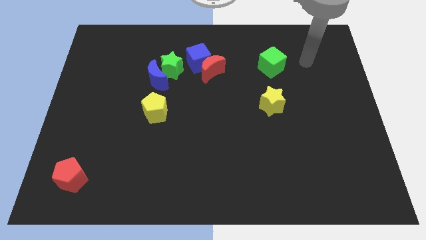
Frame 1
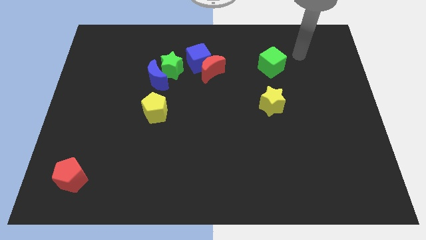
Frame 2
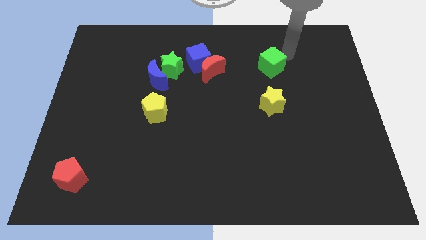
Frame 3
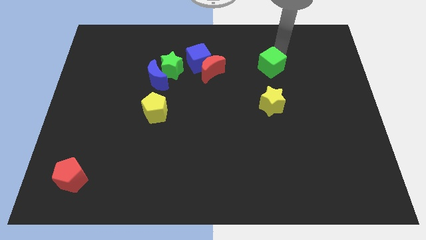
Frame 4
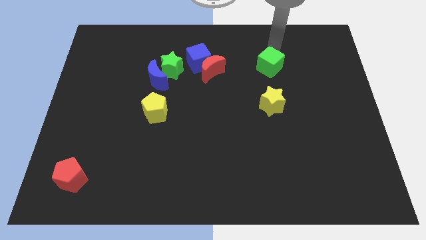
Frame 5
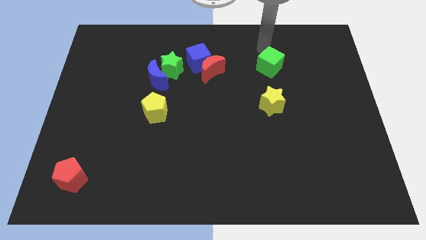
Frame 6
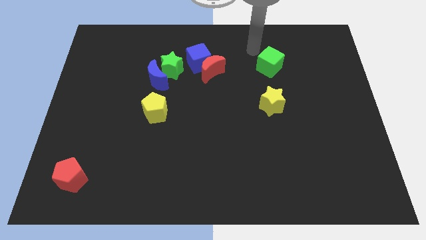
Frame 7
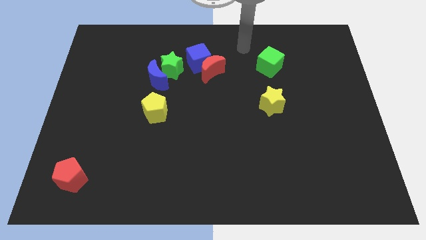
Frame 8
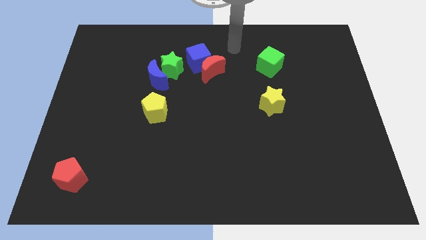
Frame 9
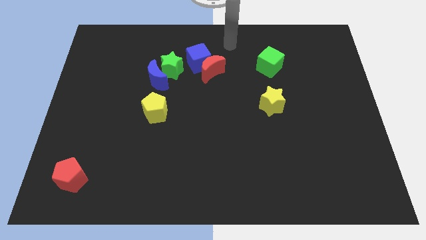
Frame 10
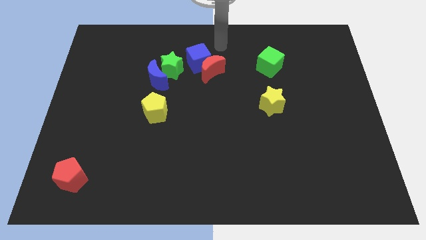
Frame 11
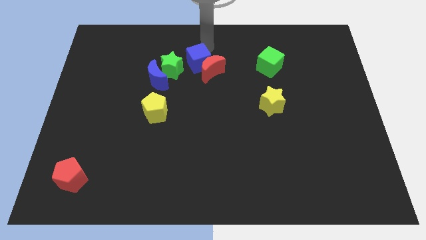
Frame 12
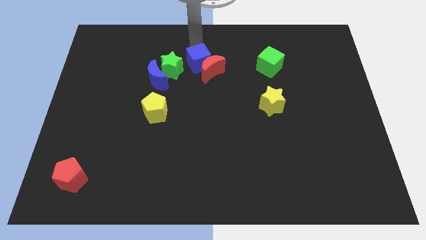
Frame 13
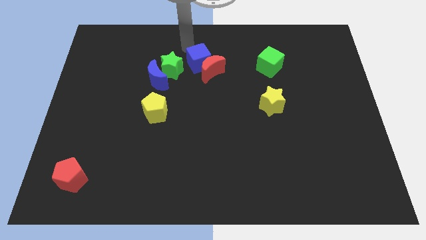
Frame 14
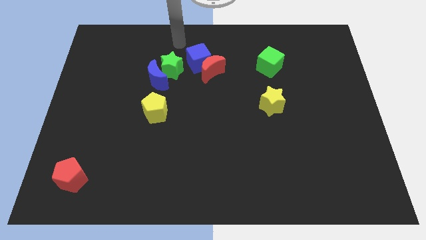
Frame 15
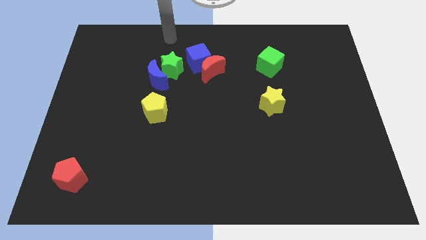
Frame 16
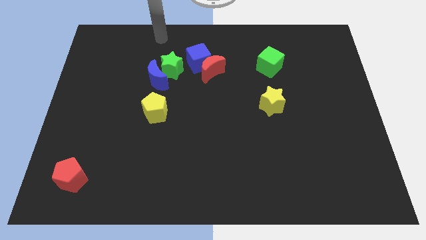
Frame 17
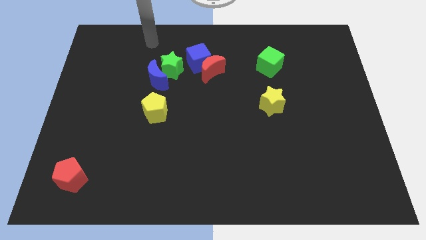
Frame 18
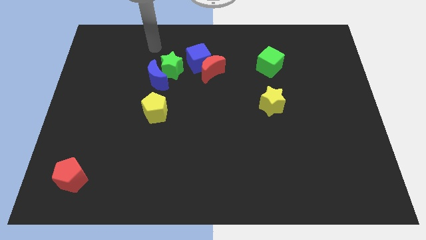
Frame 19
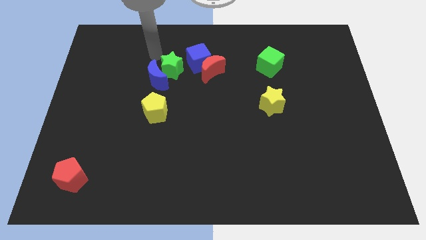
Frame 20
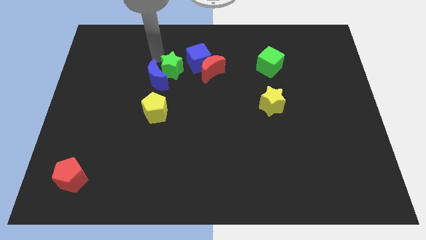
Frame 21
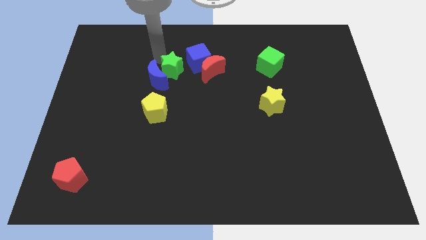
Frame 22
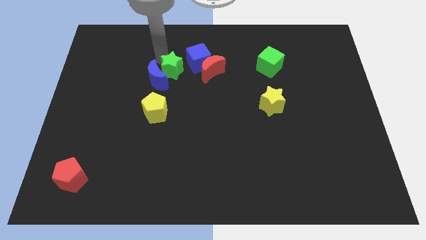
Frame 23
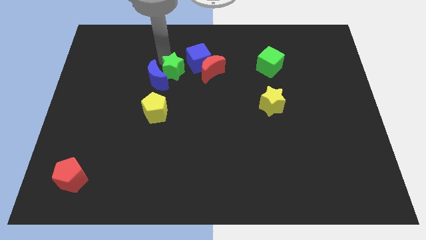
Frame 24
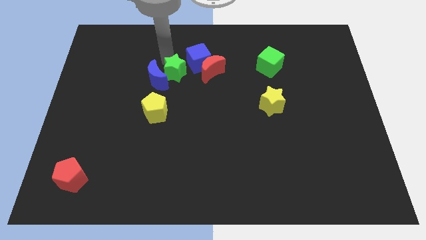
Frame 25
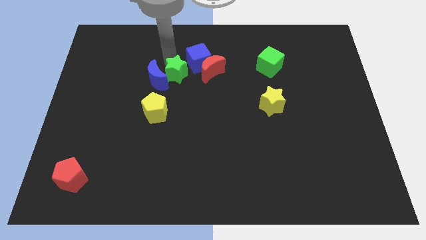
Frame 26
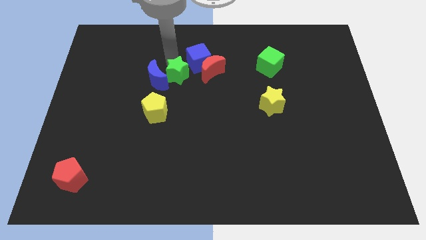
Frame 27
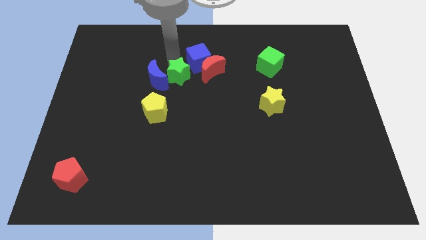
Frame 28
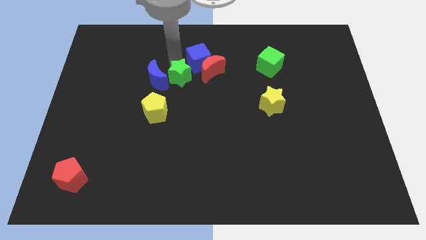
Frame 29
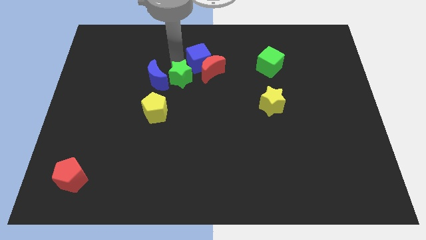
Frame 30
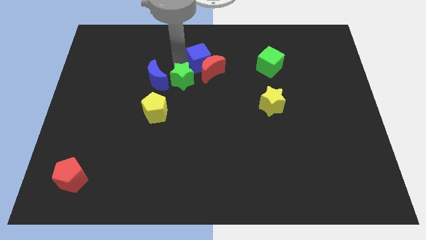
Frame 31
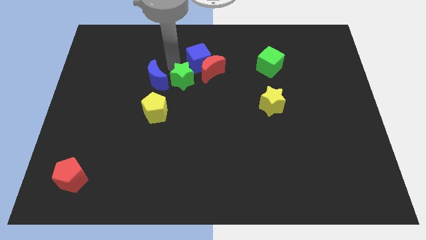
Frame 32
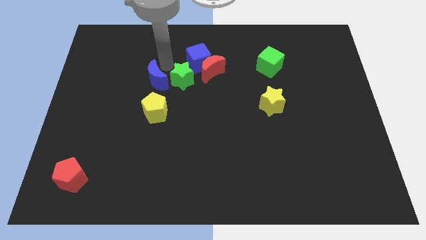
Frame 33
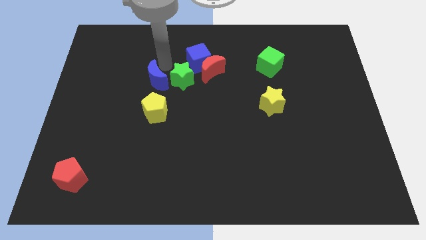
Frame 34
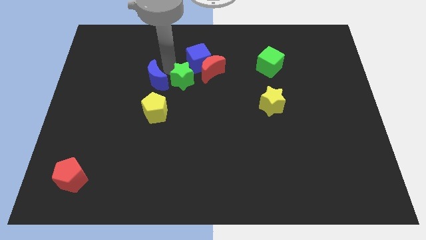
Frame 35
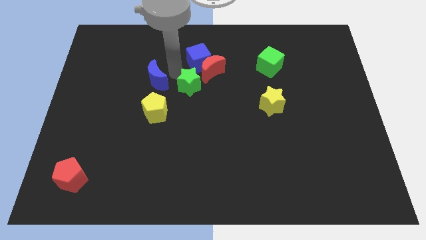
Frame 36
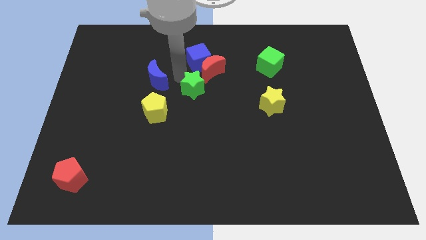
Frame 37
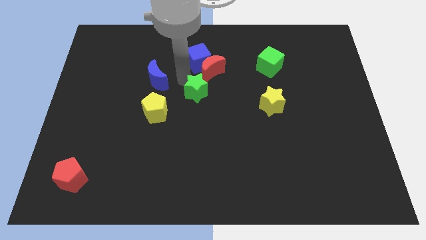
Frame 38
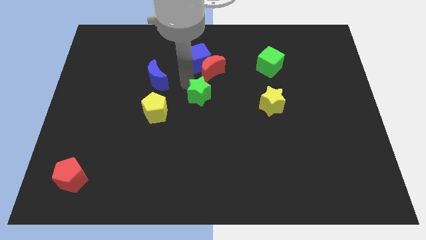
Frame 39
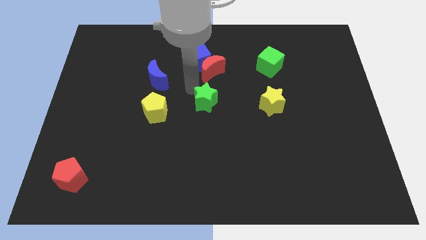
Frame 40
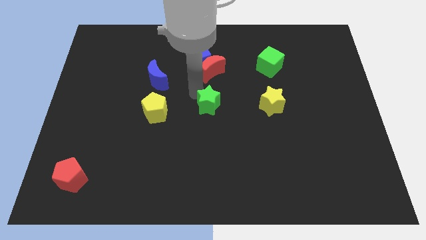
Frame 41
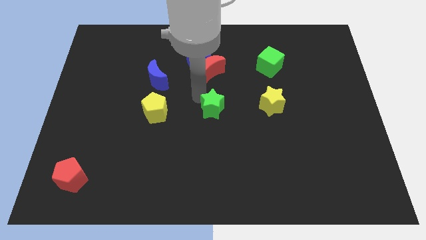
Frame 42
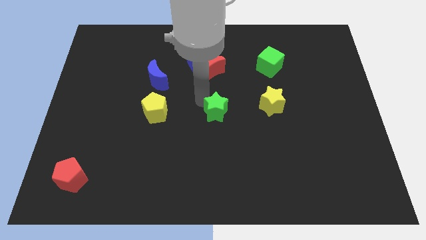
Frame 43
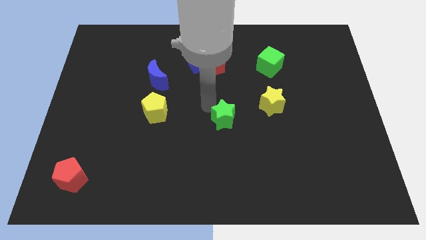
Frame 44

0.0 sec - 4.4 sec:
push the green star downwards and right

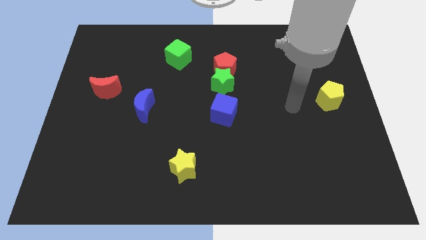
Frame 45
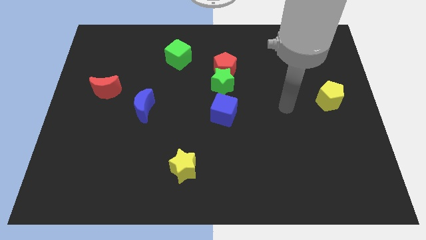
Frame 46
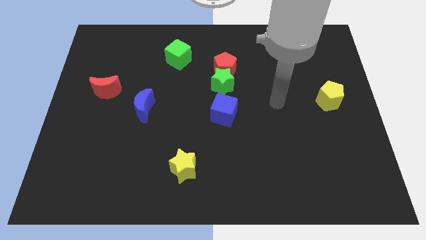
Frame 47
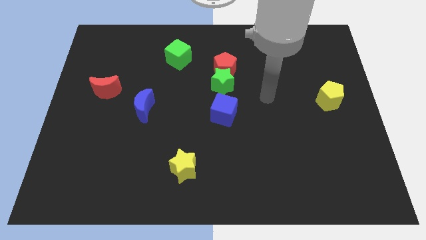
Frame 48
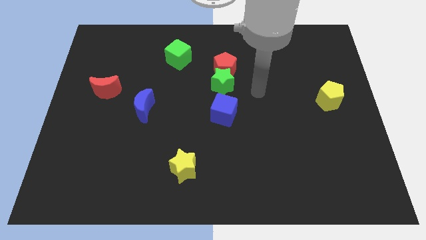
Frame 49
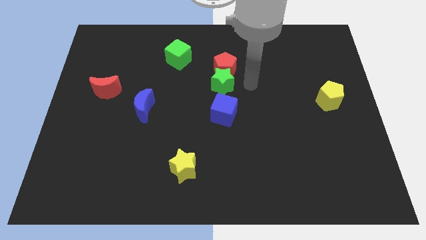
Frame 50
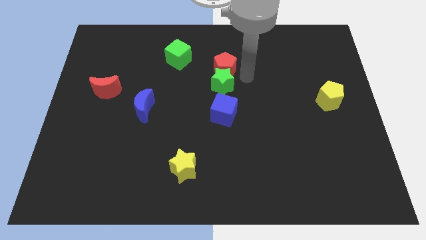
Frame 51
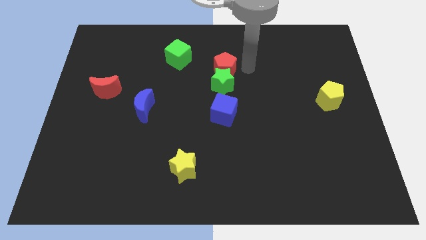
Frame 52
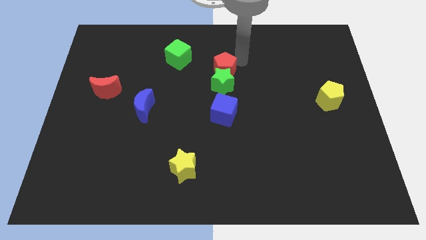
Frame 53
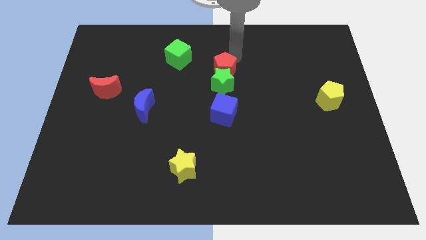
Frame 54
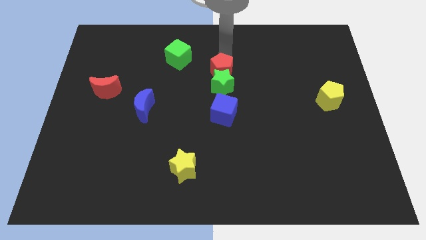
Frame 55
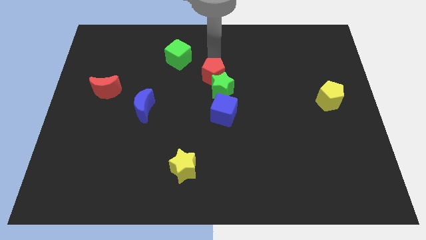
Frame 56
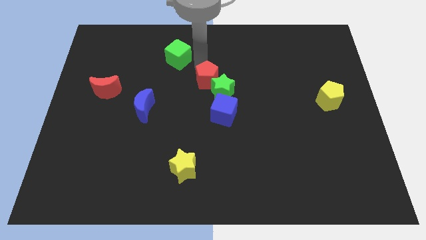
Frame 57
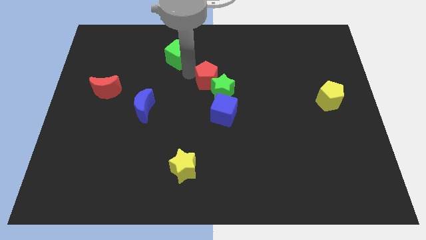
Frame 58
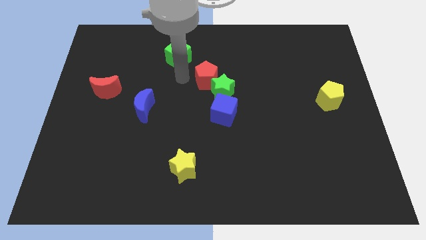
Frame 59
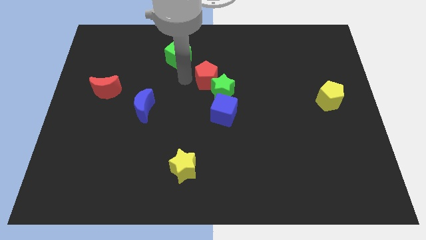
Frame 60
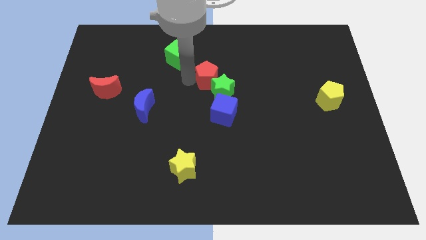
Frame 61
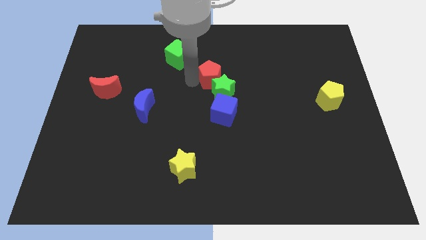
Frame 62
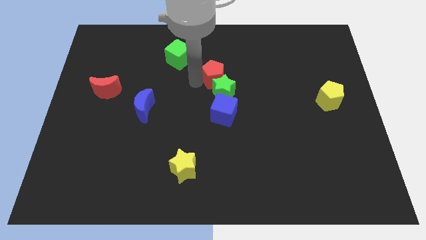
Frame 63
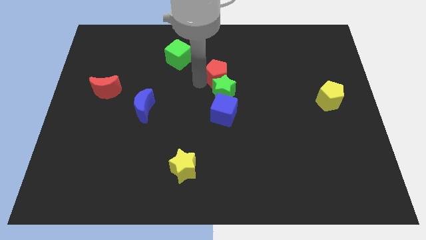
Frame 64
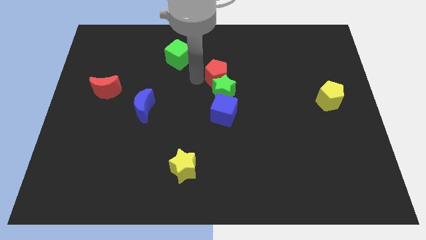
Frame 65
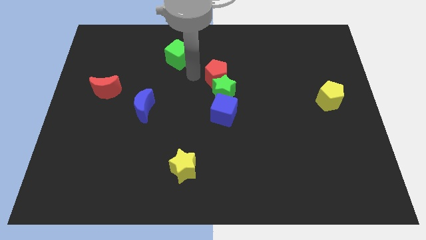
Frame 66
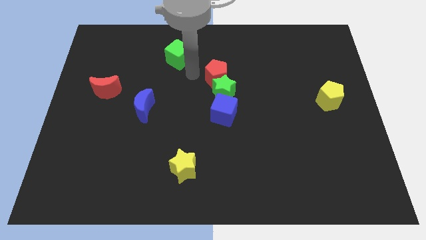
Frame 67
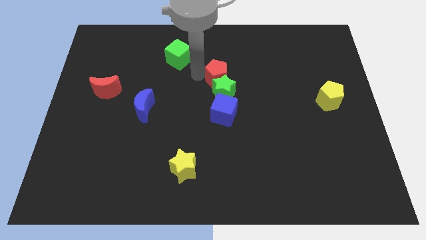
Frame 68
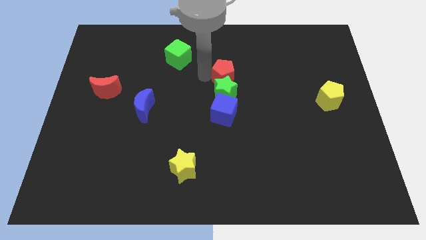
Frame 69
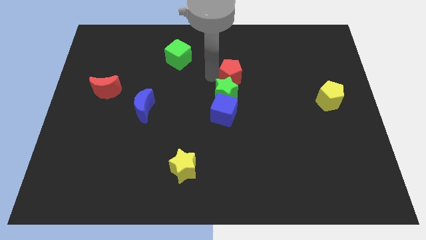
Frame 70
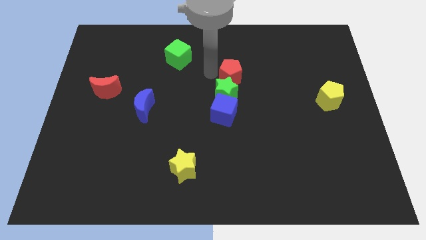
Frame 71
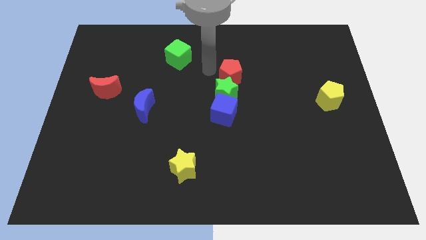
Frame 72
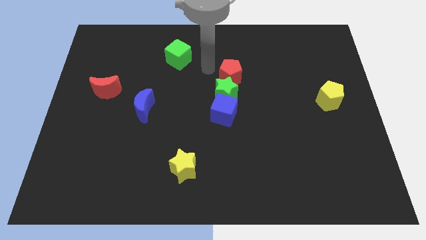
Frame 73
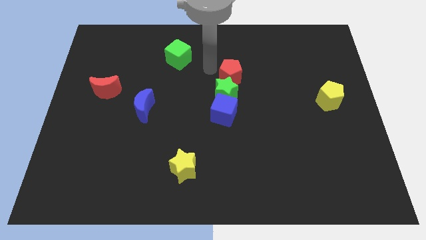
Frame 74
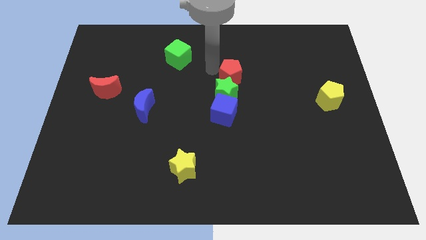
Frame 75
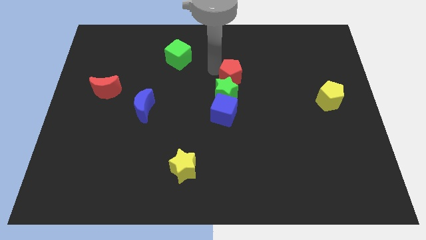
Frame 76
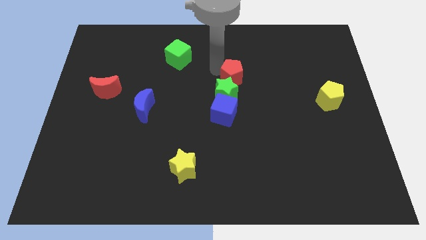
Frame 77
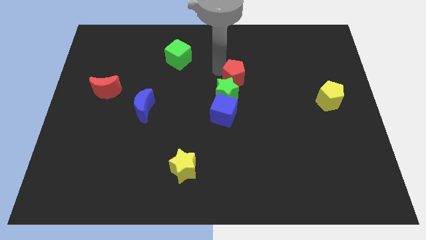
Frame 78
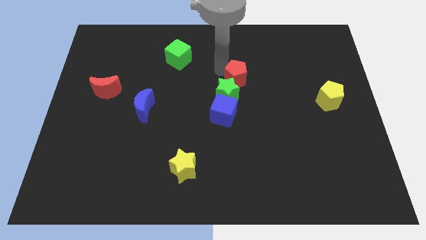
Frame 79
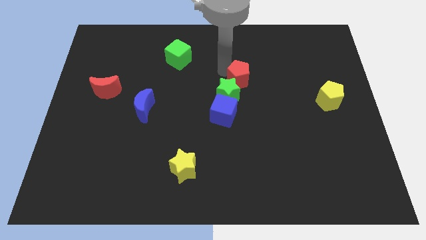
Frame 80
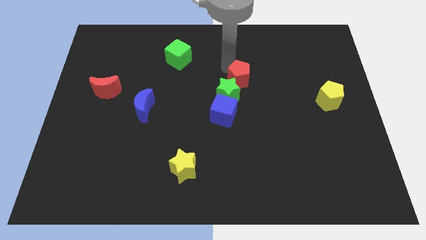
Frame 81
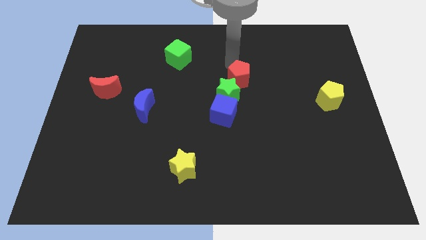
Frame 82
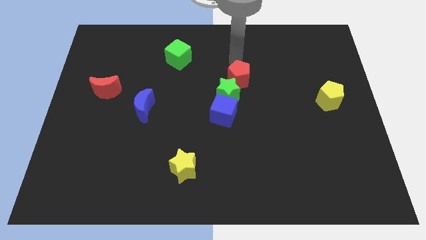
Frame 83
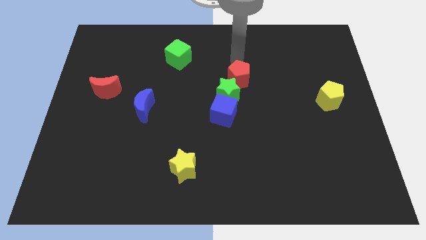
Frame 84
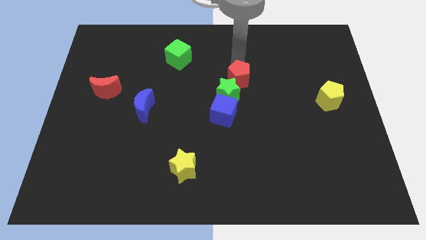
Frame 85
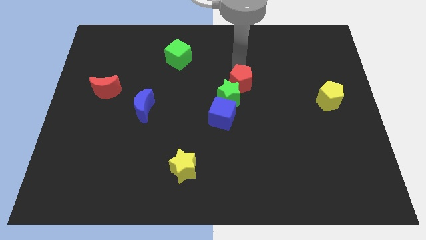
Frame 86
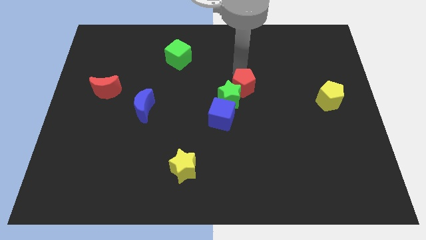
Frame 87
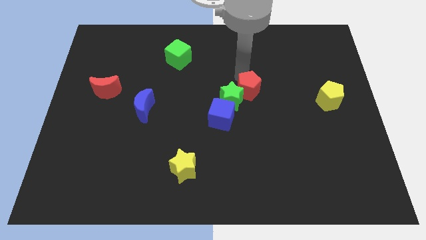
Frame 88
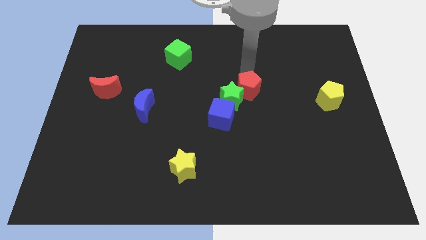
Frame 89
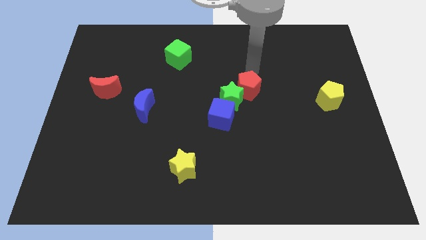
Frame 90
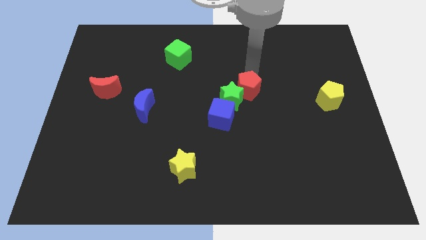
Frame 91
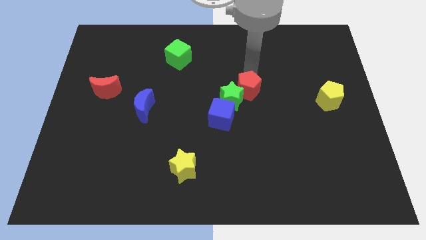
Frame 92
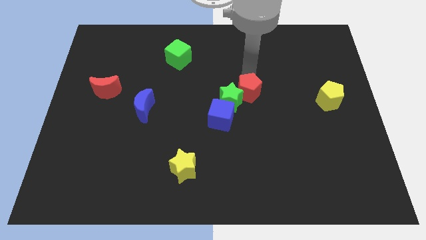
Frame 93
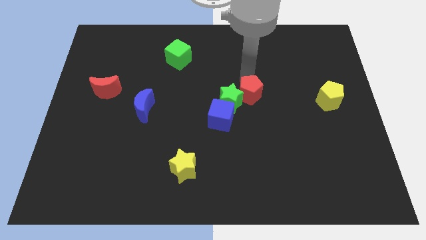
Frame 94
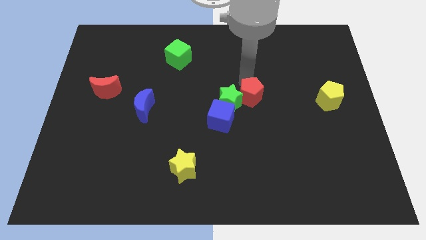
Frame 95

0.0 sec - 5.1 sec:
slightly push the red pentagon down
